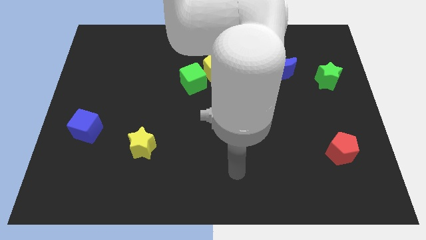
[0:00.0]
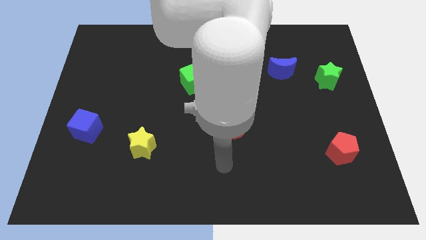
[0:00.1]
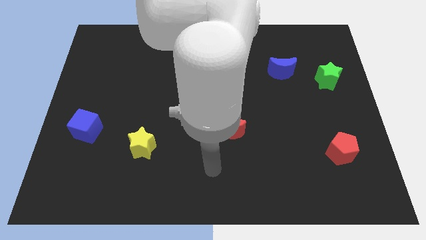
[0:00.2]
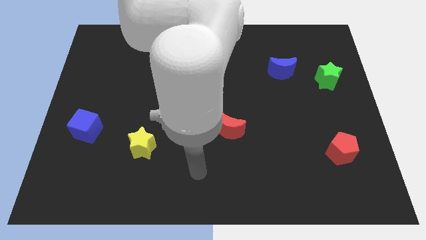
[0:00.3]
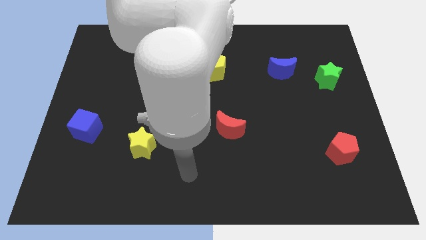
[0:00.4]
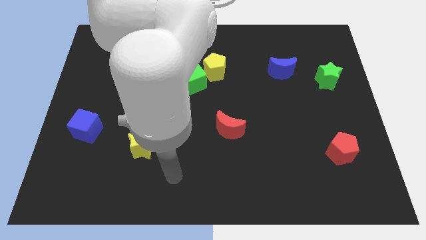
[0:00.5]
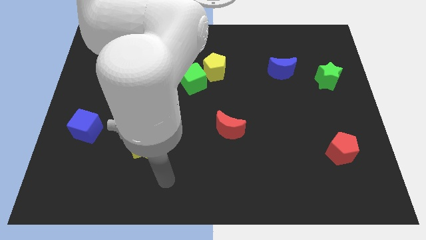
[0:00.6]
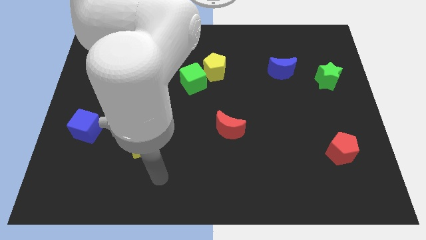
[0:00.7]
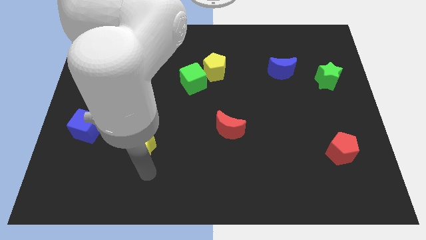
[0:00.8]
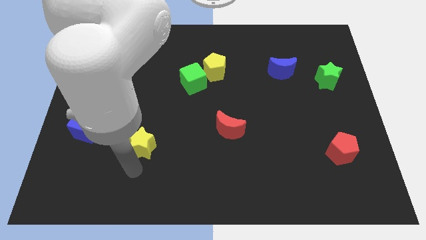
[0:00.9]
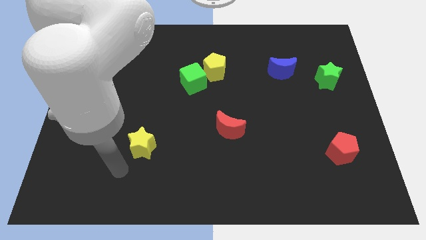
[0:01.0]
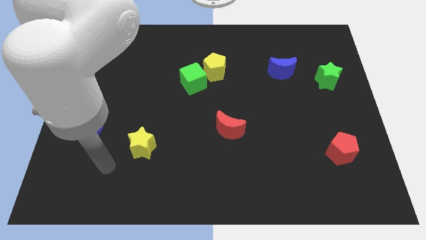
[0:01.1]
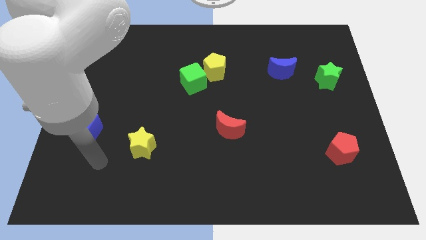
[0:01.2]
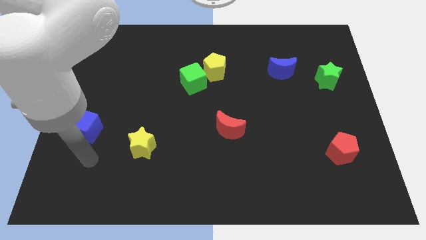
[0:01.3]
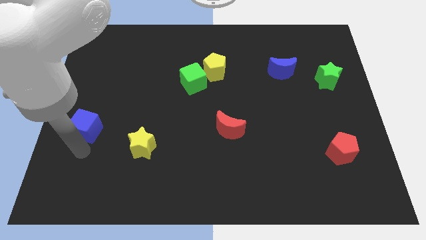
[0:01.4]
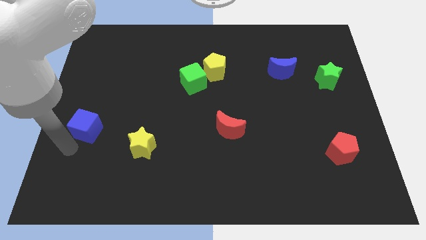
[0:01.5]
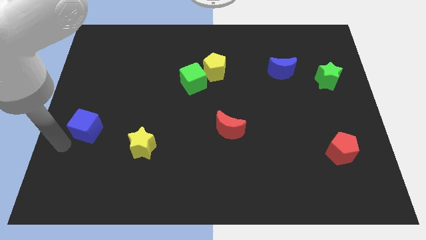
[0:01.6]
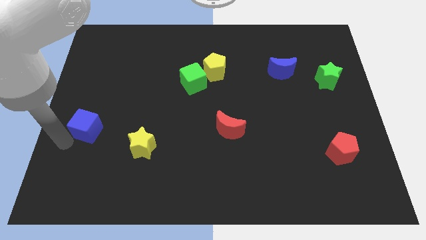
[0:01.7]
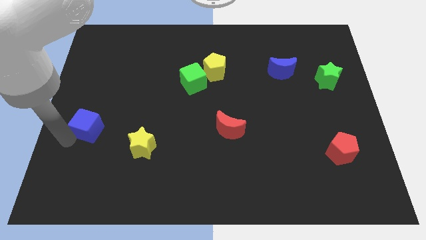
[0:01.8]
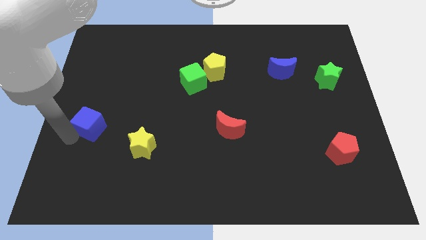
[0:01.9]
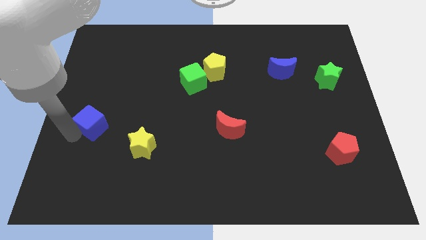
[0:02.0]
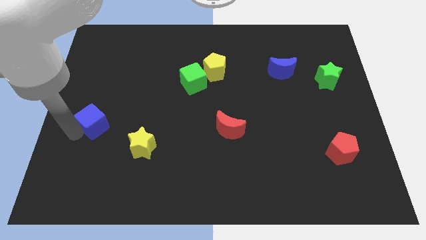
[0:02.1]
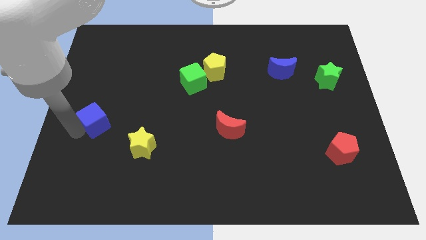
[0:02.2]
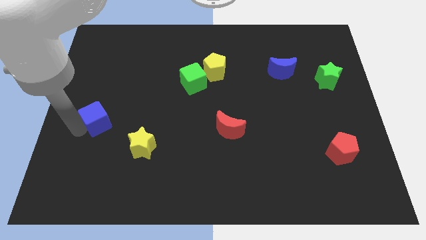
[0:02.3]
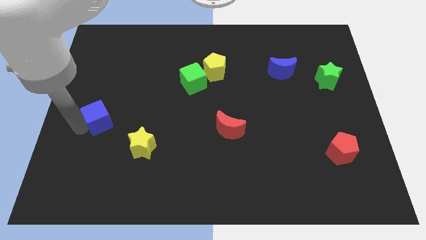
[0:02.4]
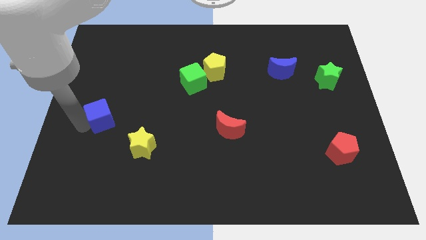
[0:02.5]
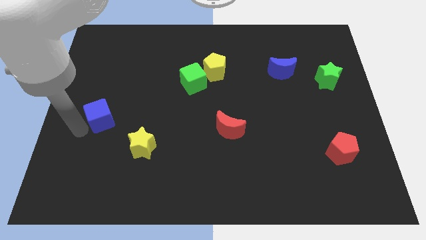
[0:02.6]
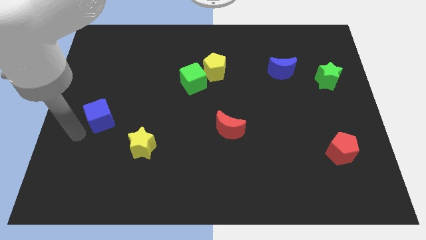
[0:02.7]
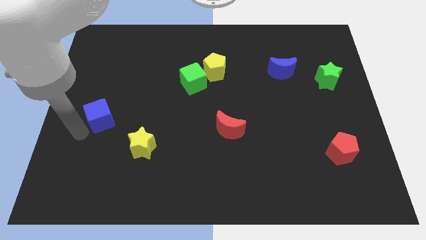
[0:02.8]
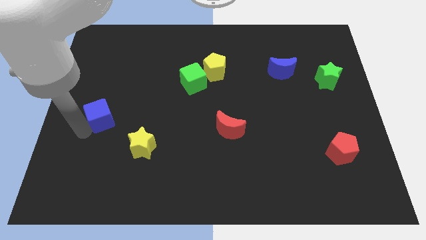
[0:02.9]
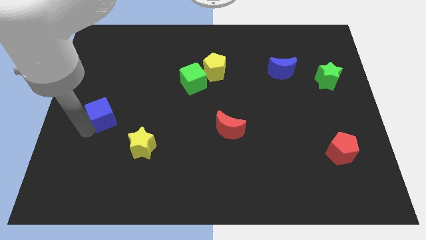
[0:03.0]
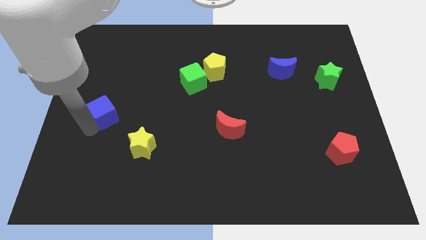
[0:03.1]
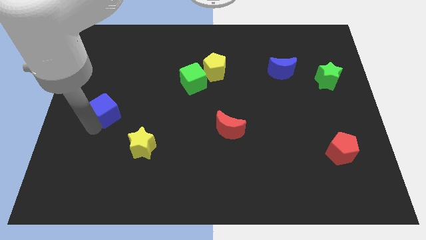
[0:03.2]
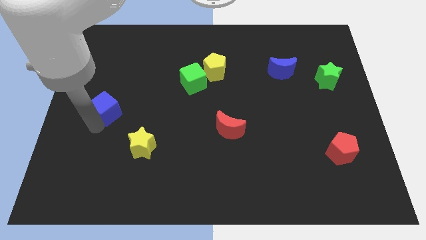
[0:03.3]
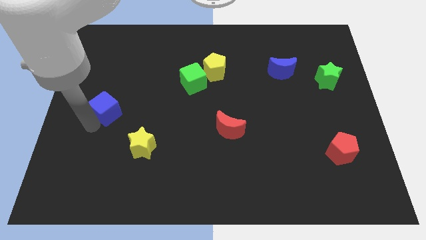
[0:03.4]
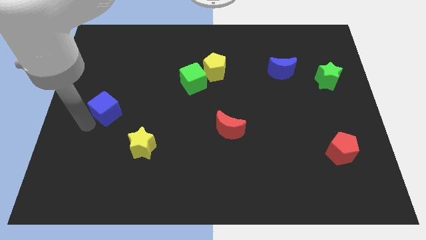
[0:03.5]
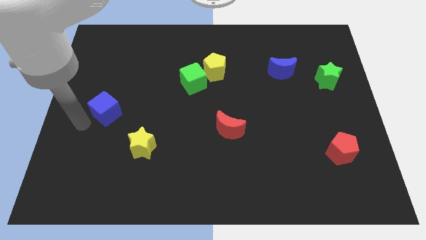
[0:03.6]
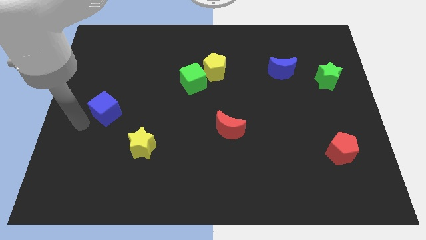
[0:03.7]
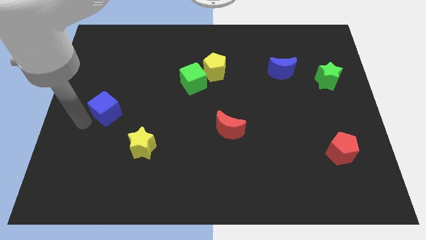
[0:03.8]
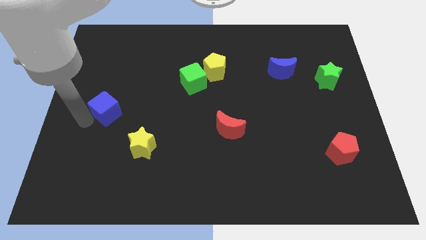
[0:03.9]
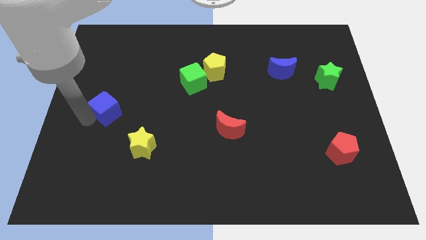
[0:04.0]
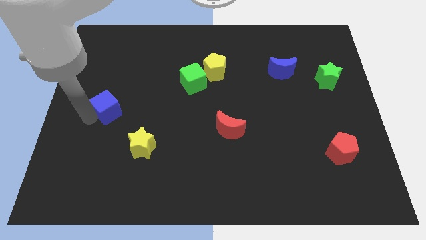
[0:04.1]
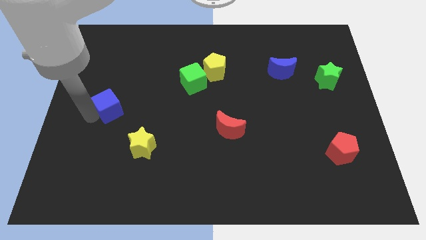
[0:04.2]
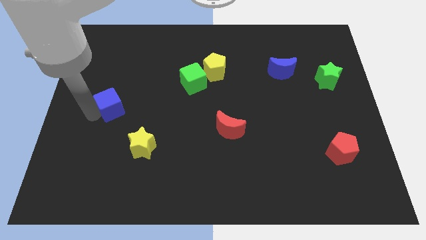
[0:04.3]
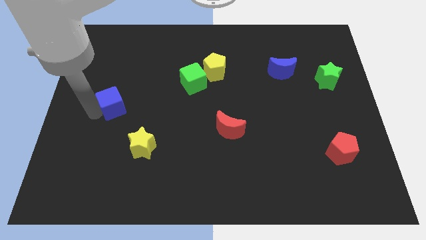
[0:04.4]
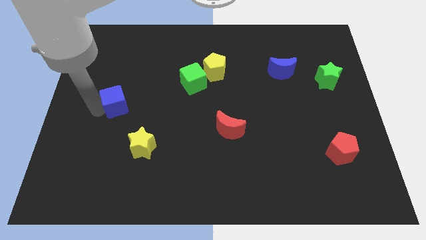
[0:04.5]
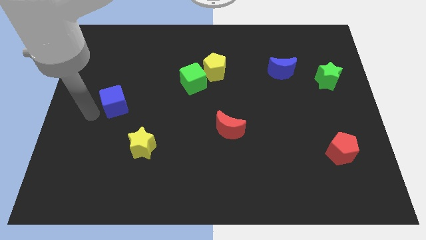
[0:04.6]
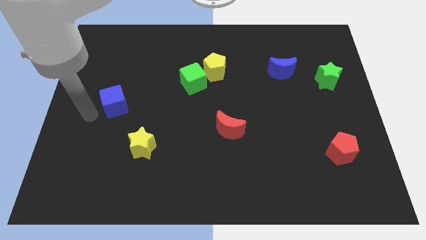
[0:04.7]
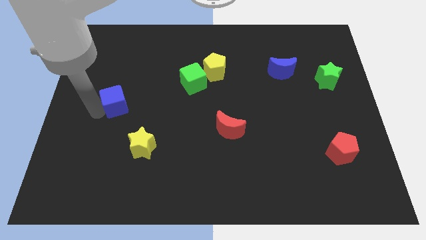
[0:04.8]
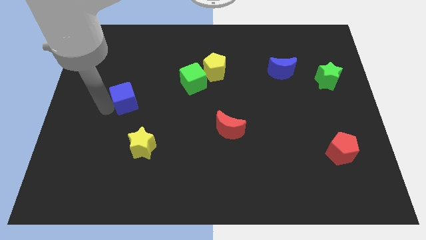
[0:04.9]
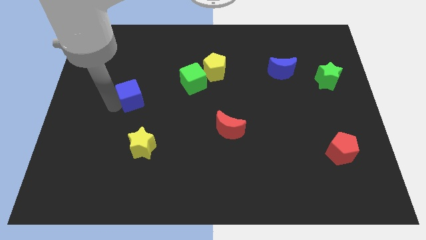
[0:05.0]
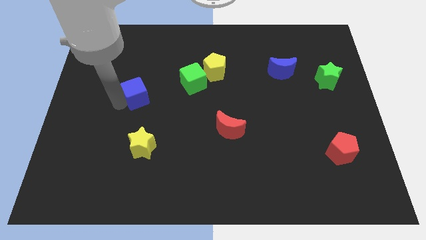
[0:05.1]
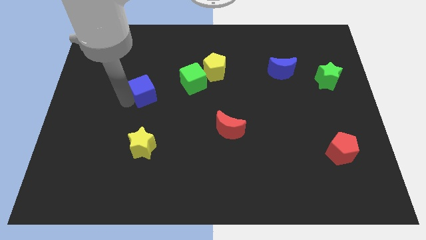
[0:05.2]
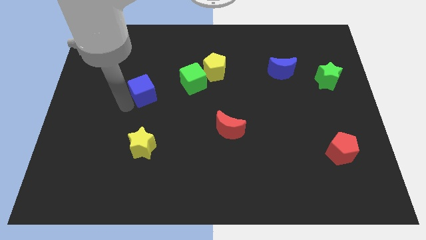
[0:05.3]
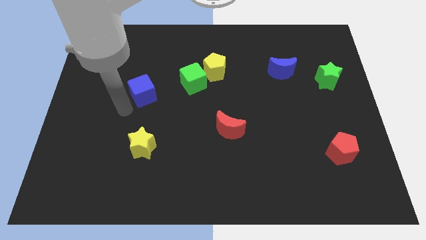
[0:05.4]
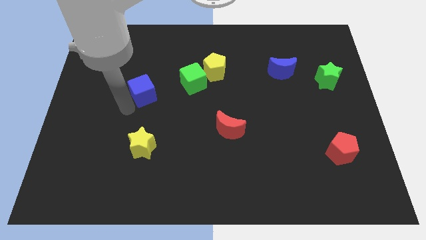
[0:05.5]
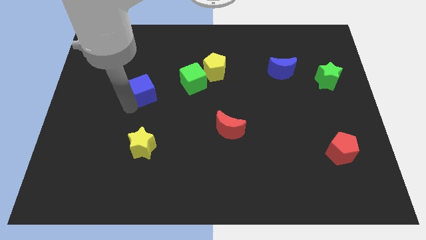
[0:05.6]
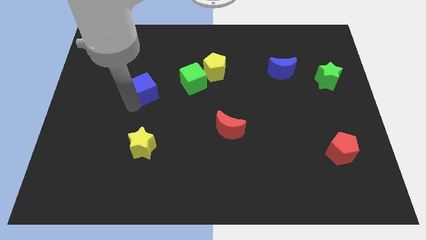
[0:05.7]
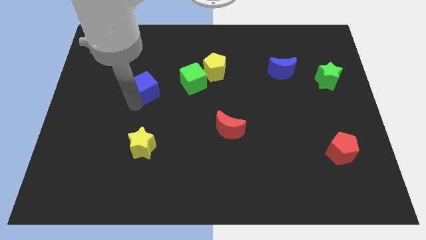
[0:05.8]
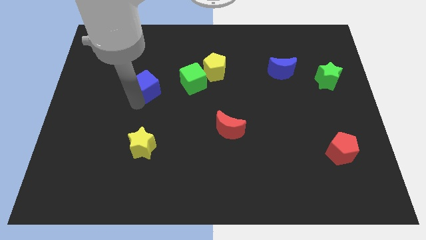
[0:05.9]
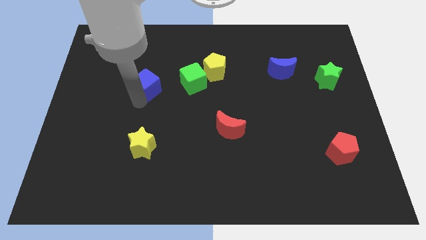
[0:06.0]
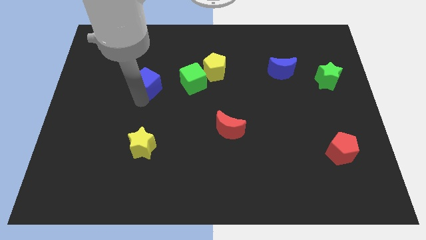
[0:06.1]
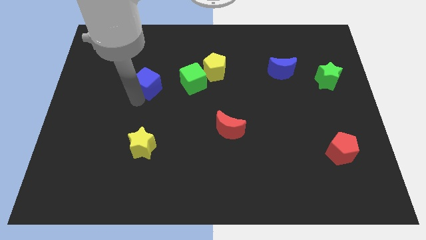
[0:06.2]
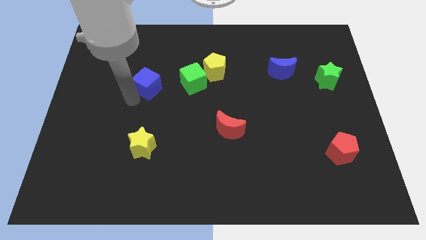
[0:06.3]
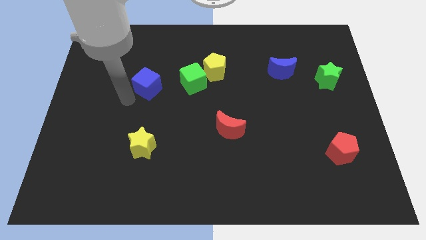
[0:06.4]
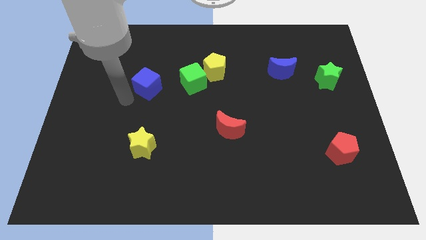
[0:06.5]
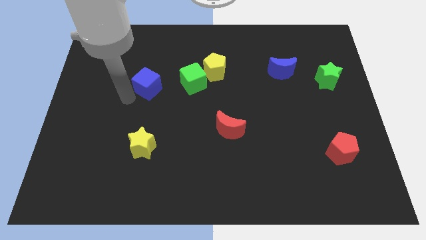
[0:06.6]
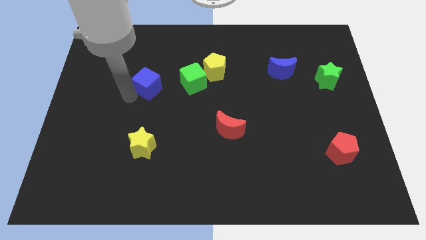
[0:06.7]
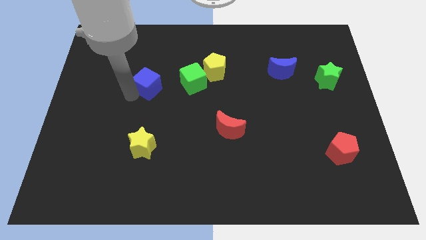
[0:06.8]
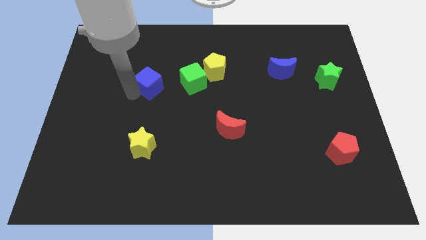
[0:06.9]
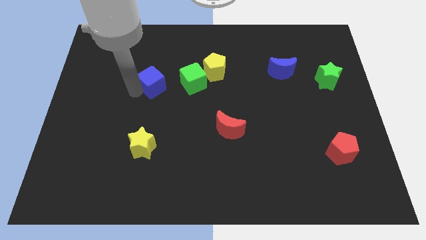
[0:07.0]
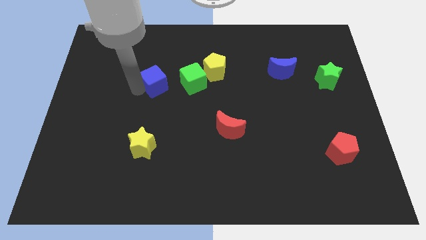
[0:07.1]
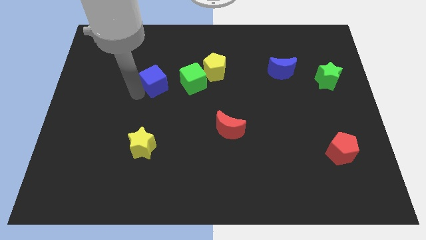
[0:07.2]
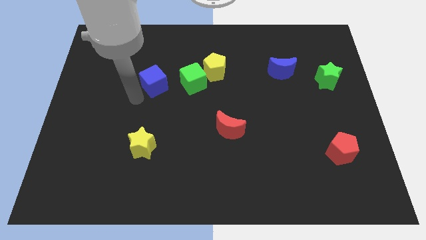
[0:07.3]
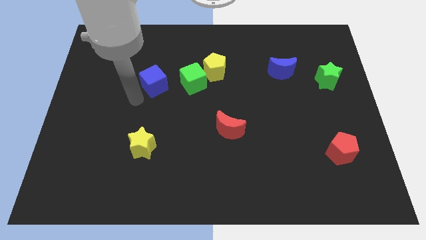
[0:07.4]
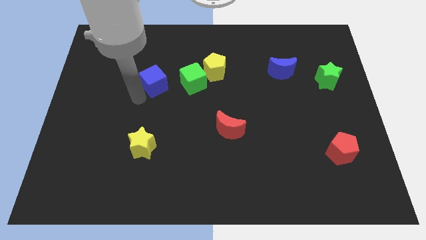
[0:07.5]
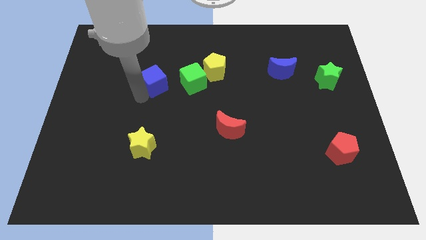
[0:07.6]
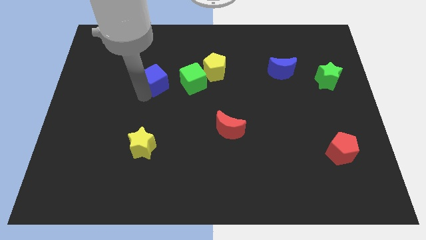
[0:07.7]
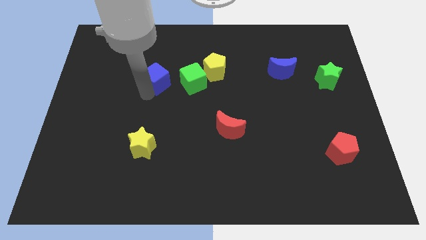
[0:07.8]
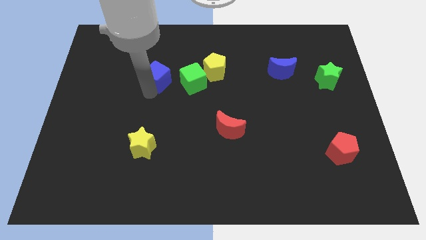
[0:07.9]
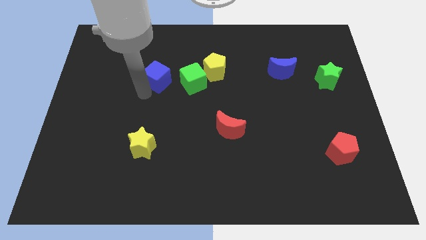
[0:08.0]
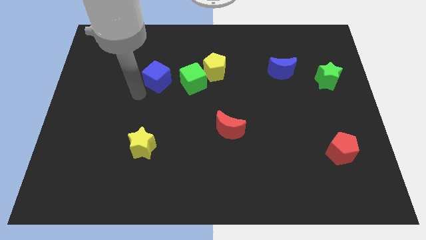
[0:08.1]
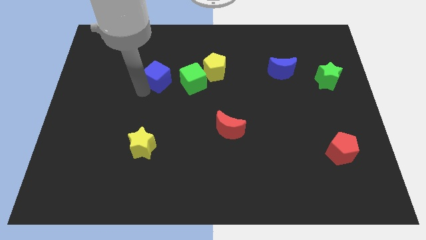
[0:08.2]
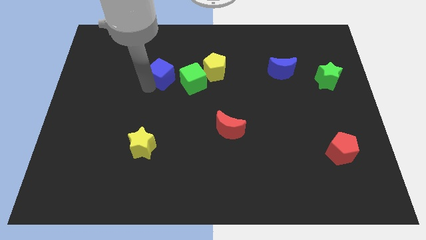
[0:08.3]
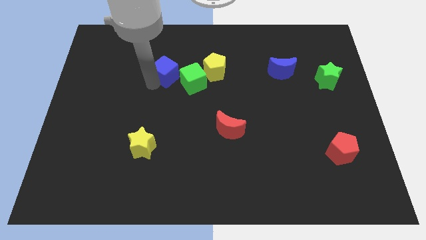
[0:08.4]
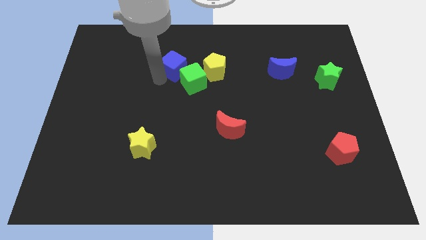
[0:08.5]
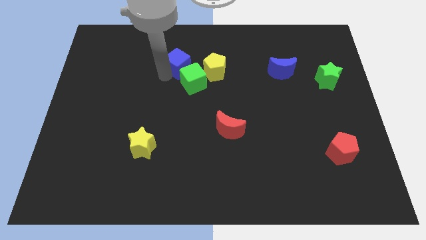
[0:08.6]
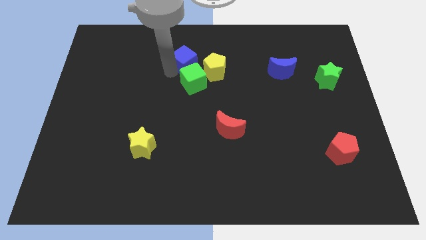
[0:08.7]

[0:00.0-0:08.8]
put the blue cube diagonally up and to the left of the yellow pentagon
